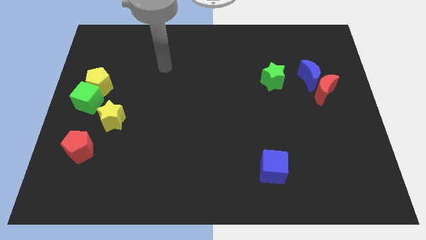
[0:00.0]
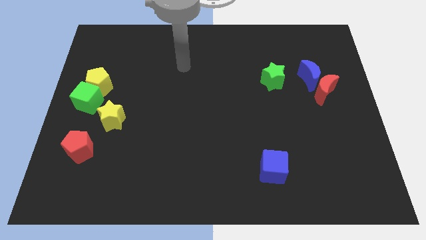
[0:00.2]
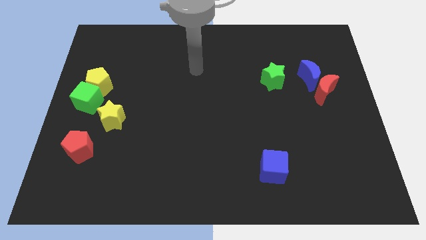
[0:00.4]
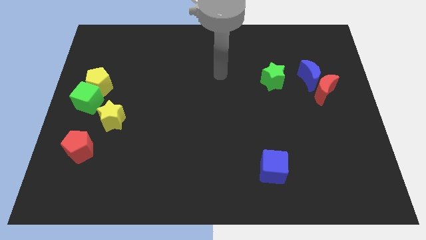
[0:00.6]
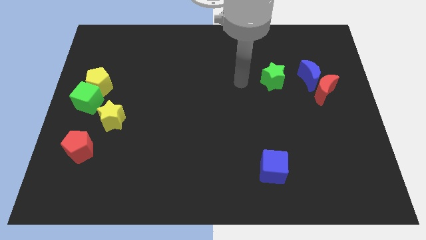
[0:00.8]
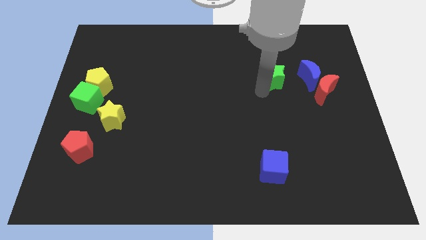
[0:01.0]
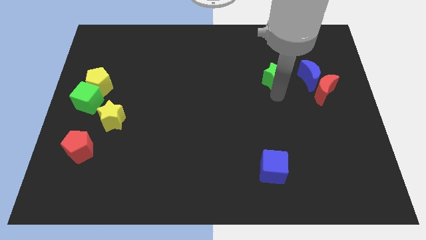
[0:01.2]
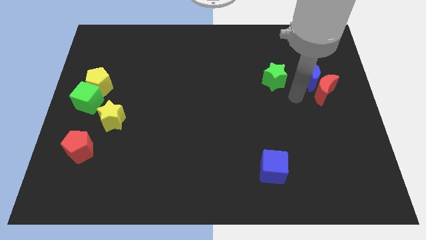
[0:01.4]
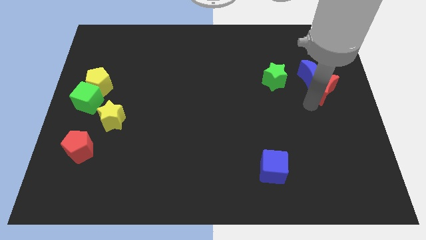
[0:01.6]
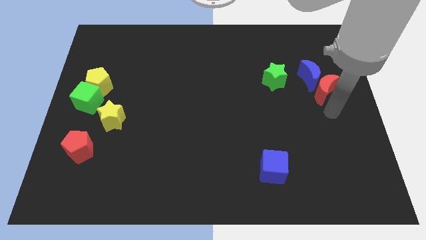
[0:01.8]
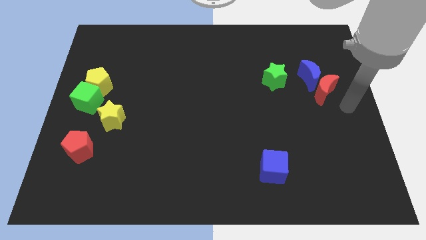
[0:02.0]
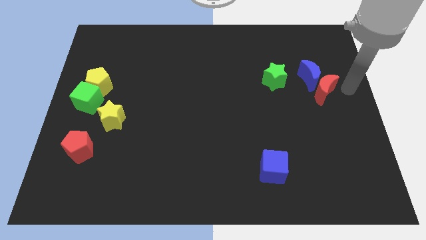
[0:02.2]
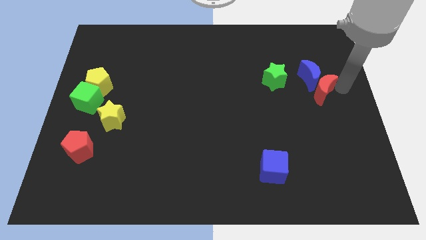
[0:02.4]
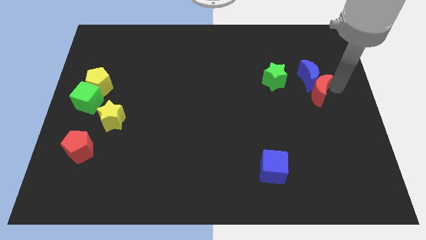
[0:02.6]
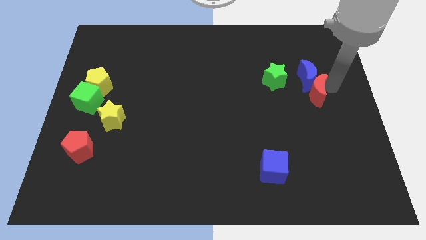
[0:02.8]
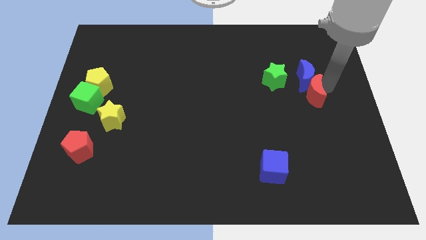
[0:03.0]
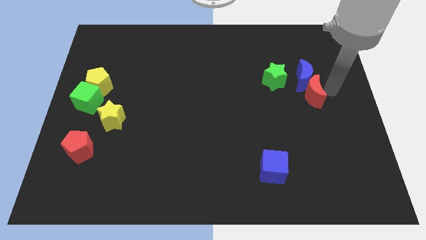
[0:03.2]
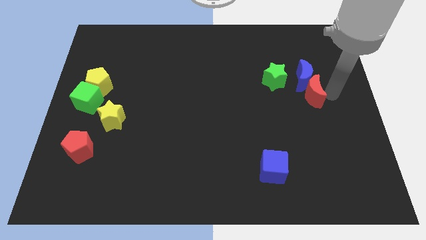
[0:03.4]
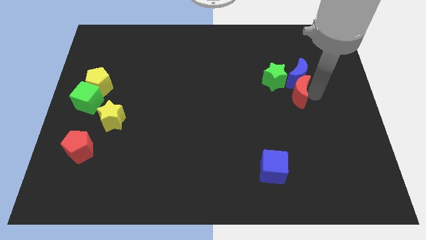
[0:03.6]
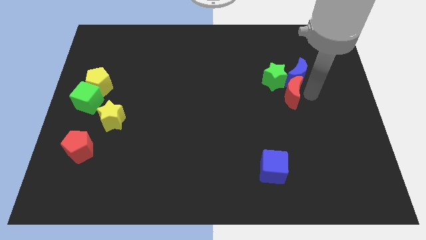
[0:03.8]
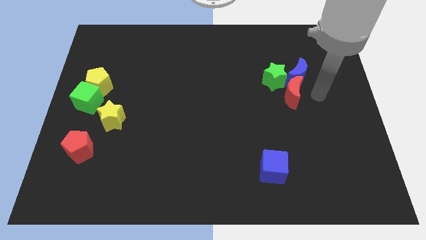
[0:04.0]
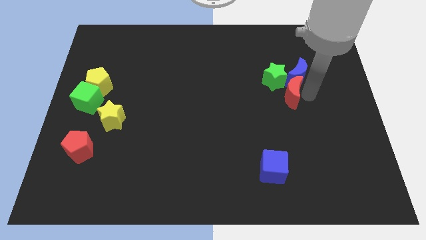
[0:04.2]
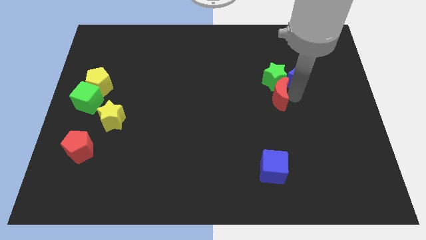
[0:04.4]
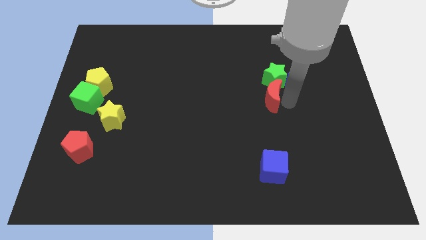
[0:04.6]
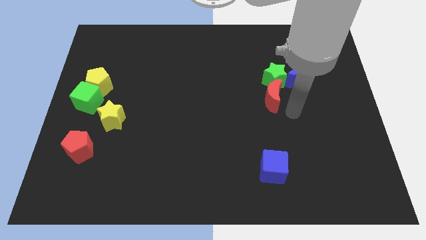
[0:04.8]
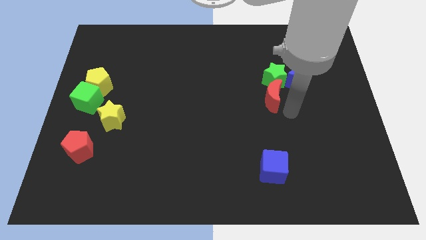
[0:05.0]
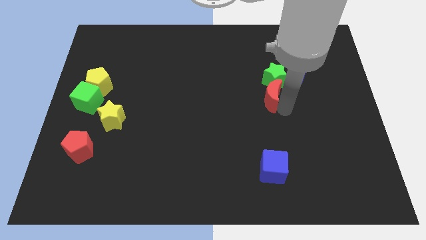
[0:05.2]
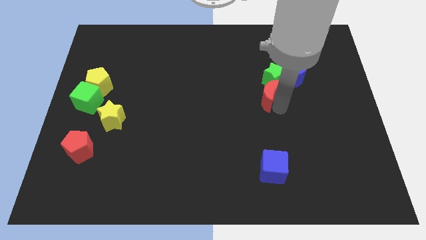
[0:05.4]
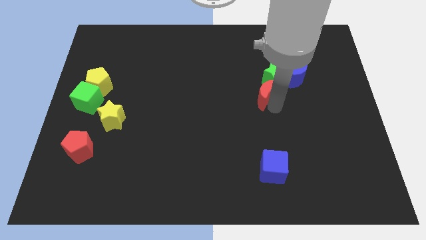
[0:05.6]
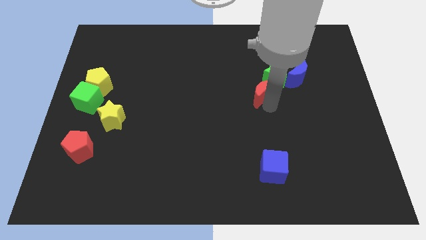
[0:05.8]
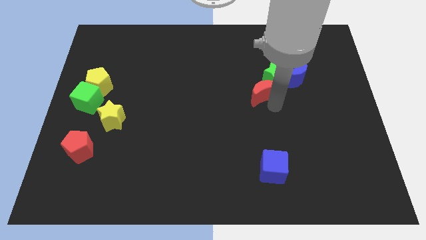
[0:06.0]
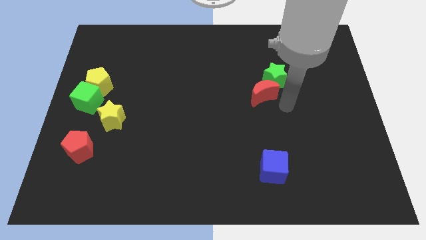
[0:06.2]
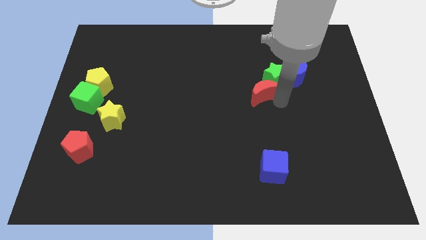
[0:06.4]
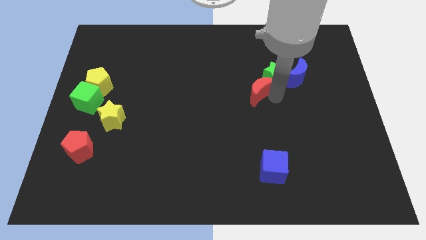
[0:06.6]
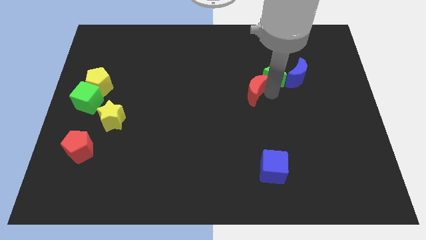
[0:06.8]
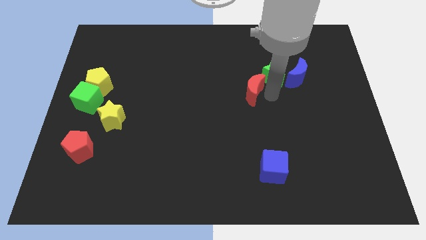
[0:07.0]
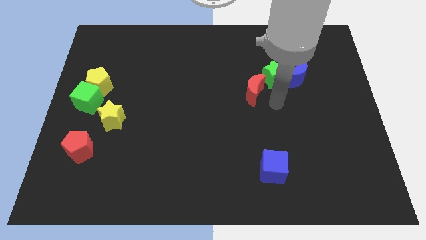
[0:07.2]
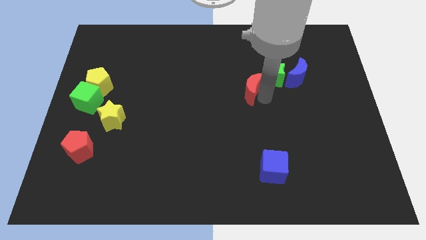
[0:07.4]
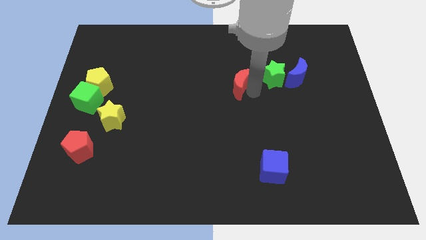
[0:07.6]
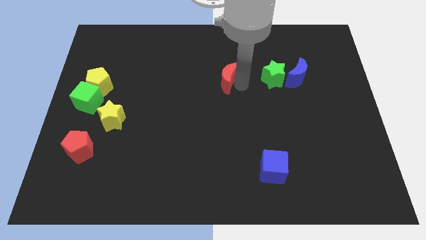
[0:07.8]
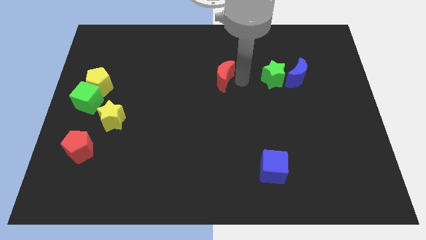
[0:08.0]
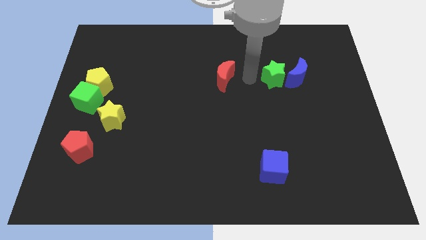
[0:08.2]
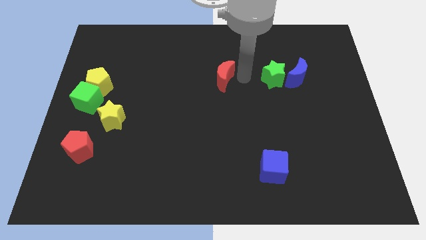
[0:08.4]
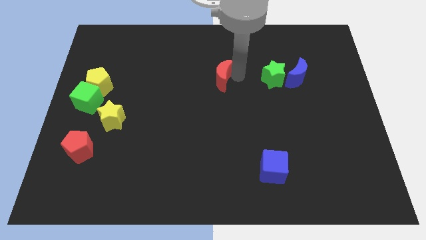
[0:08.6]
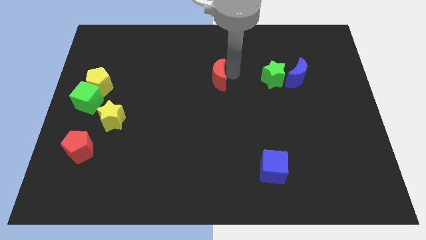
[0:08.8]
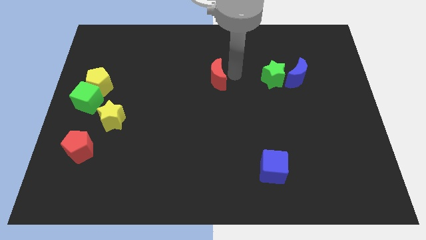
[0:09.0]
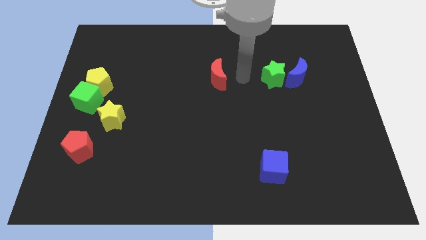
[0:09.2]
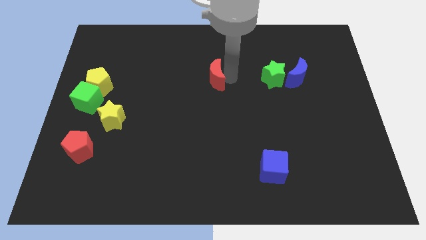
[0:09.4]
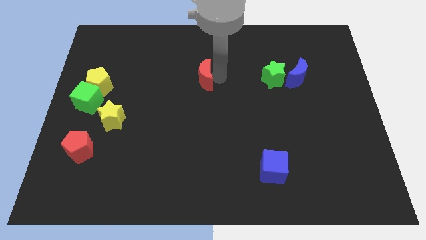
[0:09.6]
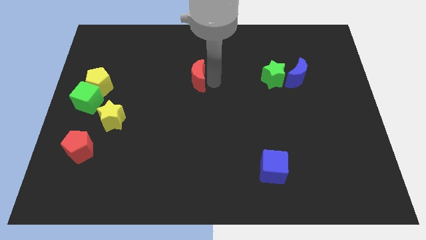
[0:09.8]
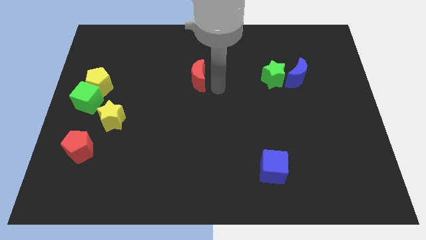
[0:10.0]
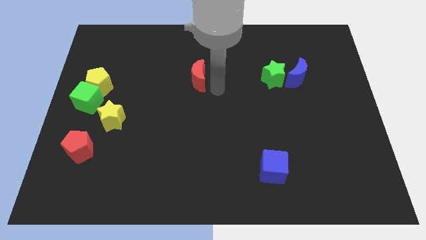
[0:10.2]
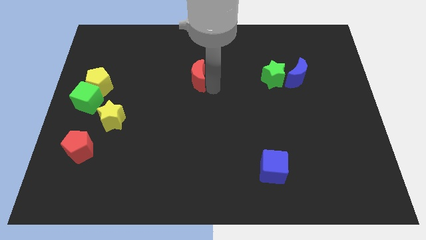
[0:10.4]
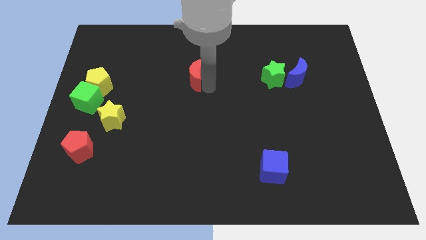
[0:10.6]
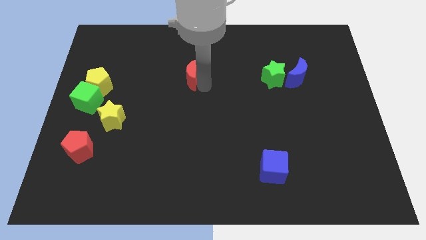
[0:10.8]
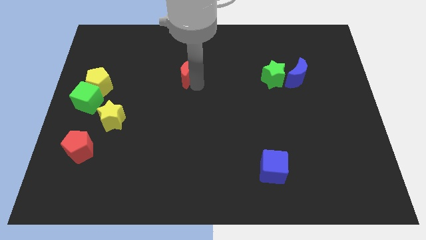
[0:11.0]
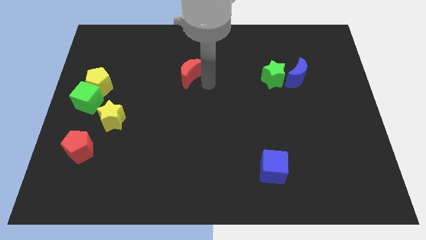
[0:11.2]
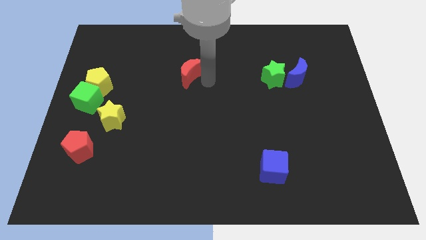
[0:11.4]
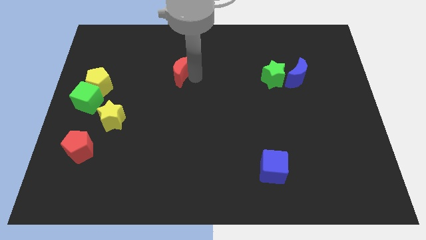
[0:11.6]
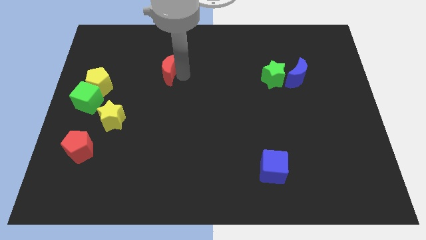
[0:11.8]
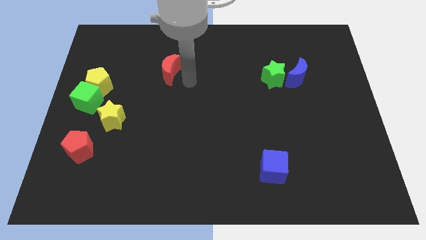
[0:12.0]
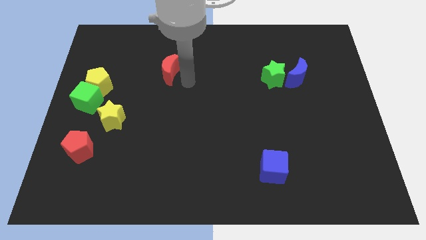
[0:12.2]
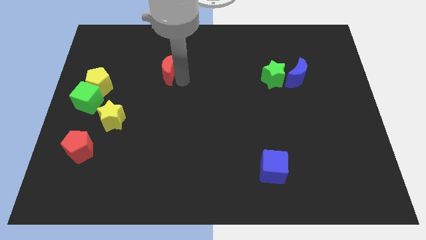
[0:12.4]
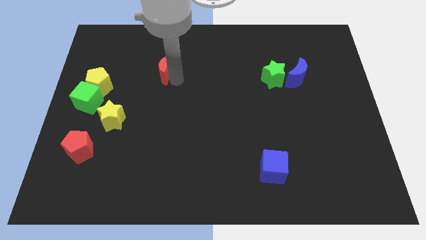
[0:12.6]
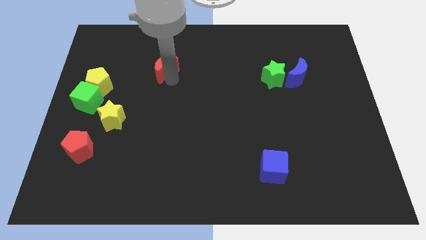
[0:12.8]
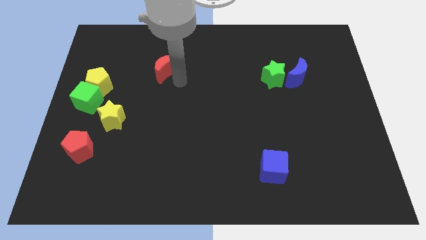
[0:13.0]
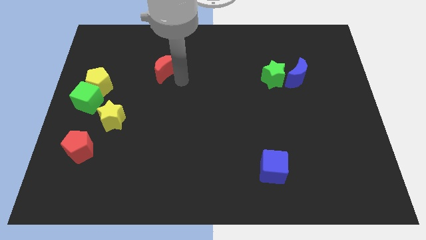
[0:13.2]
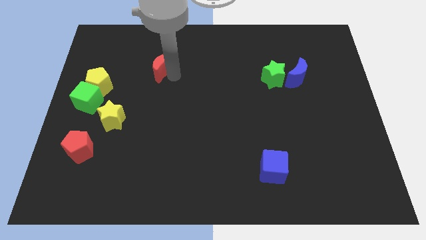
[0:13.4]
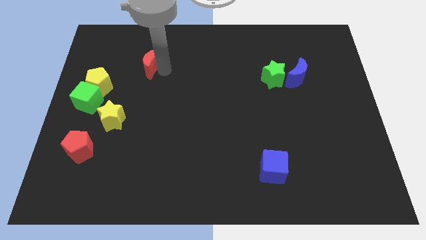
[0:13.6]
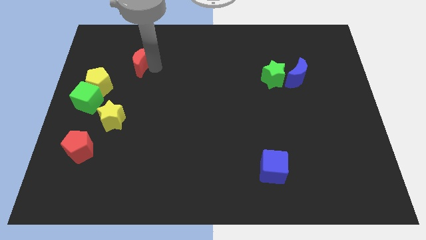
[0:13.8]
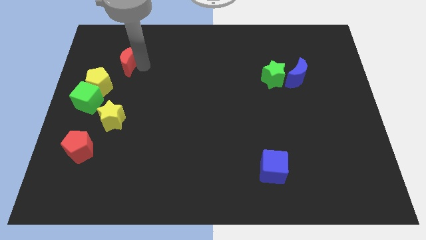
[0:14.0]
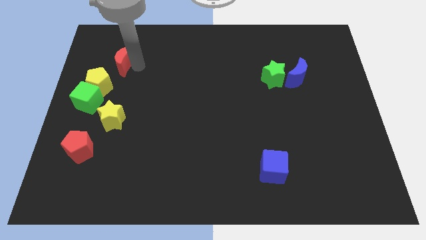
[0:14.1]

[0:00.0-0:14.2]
slide the red moon to the top side of the yellow pentagon
